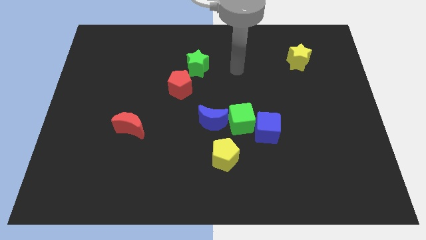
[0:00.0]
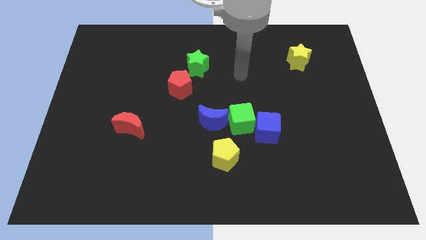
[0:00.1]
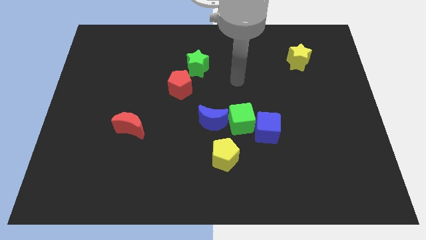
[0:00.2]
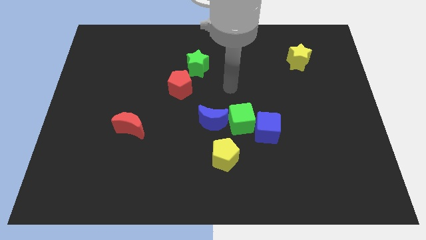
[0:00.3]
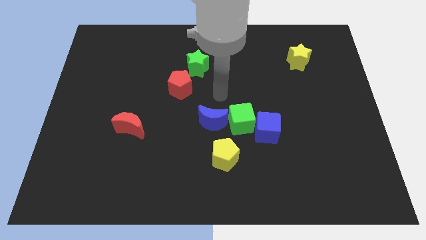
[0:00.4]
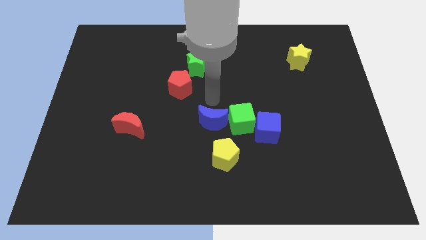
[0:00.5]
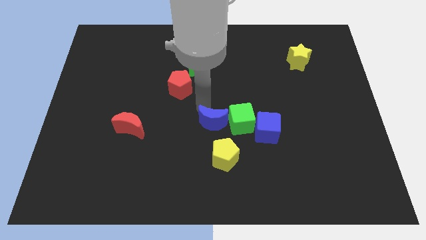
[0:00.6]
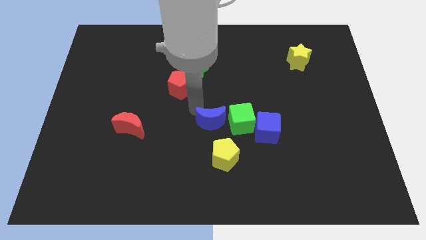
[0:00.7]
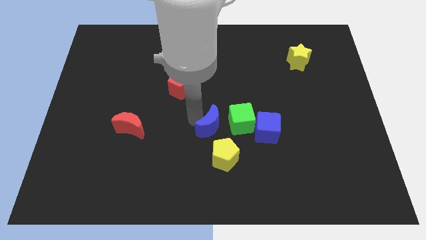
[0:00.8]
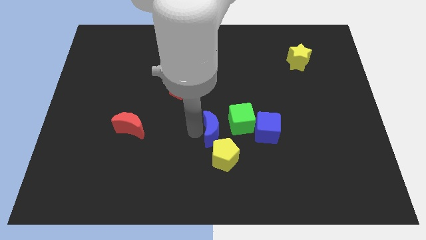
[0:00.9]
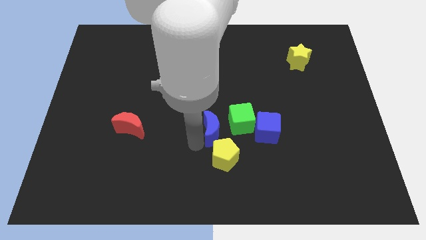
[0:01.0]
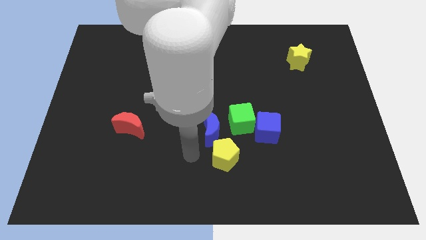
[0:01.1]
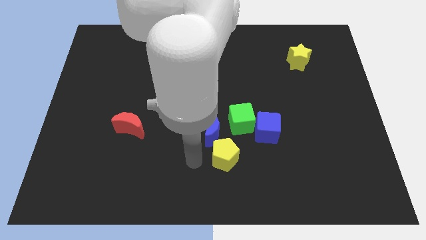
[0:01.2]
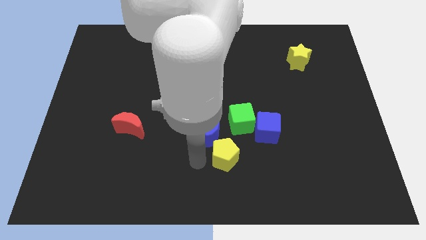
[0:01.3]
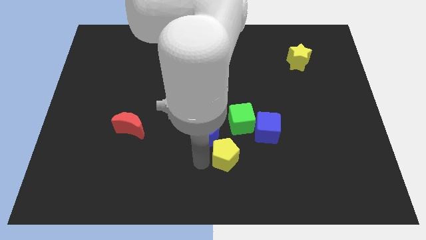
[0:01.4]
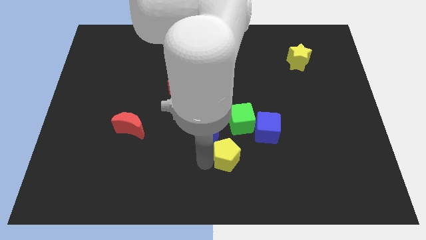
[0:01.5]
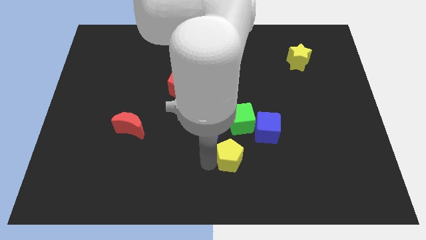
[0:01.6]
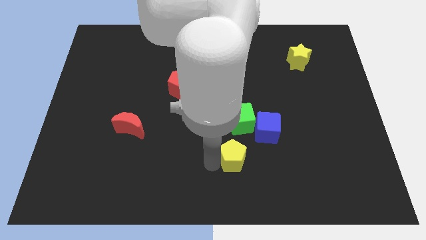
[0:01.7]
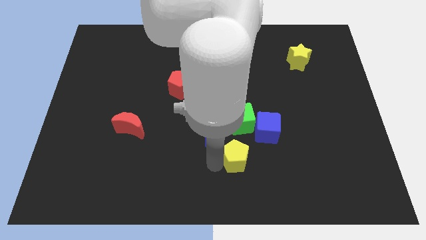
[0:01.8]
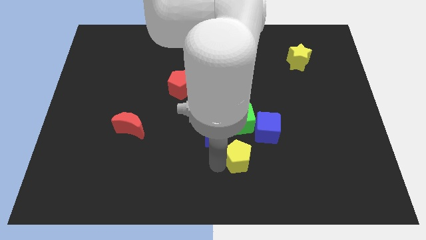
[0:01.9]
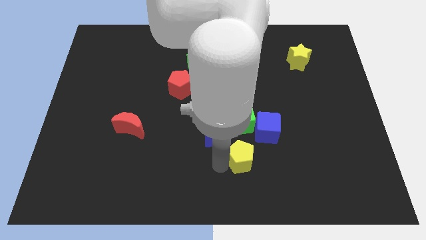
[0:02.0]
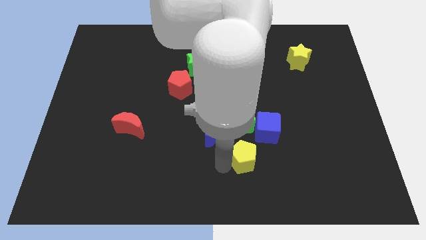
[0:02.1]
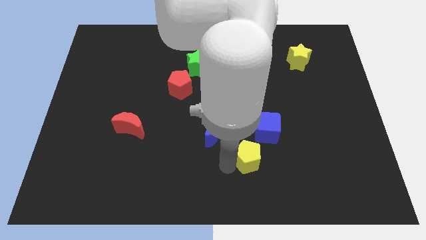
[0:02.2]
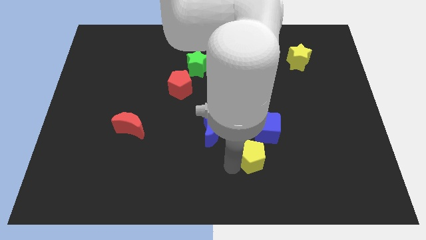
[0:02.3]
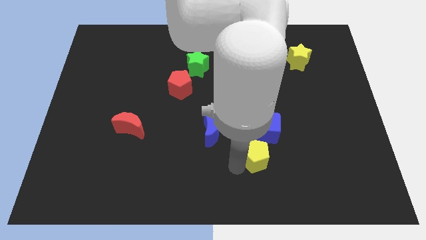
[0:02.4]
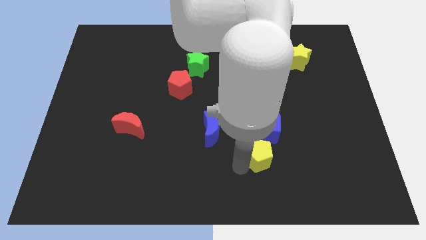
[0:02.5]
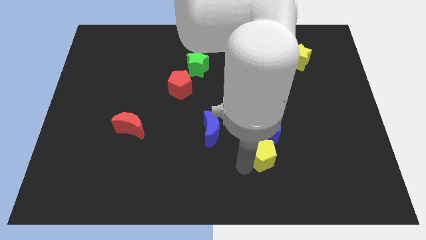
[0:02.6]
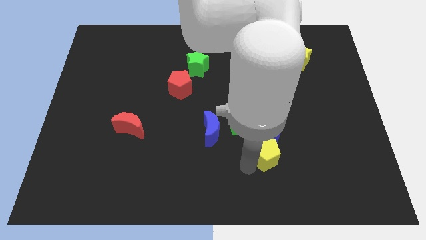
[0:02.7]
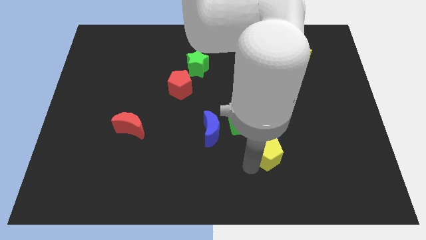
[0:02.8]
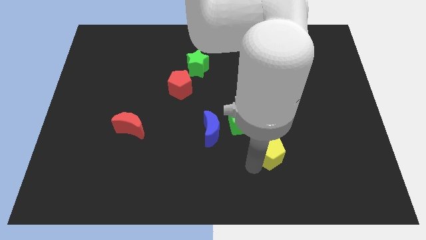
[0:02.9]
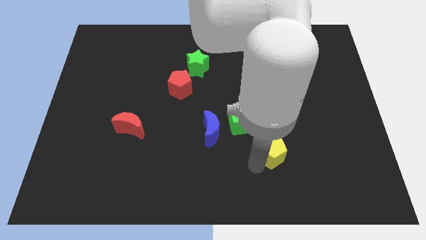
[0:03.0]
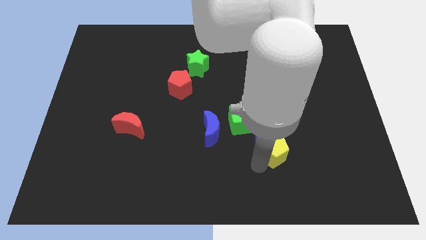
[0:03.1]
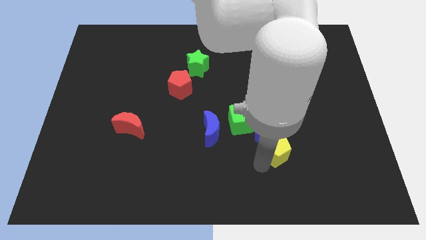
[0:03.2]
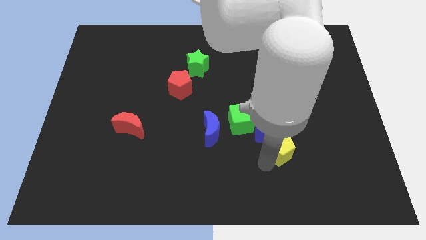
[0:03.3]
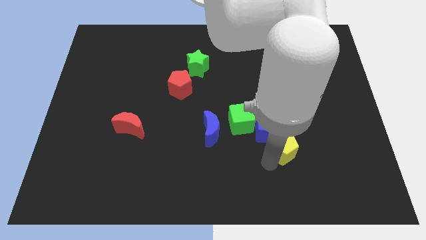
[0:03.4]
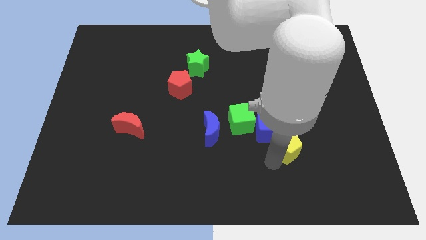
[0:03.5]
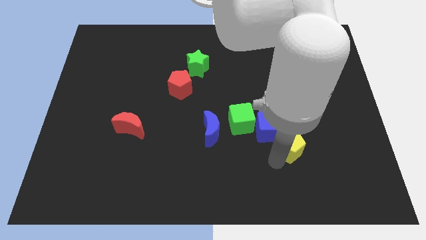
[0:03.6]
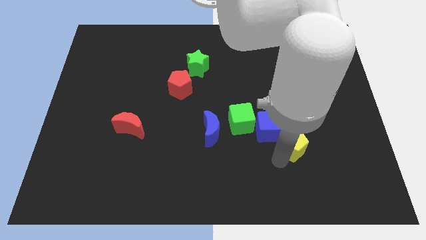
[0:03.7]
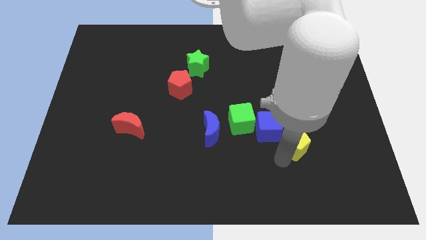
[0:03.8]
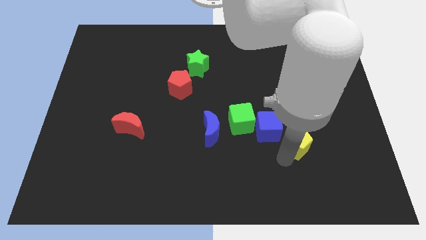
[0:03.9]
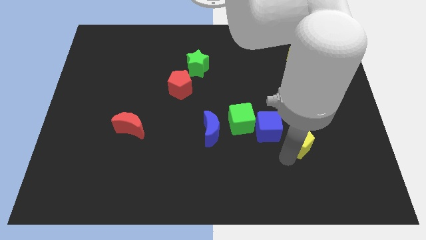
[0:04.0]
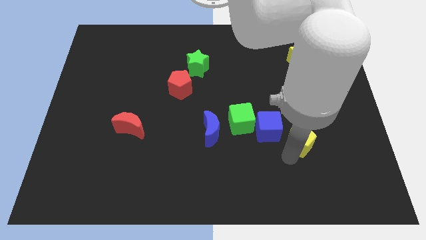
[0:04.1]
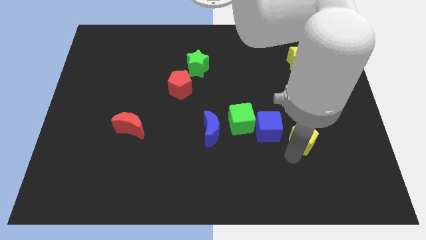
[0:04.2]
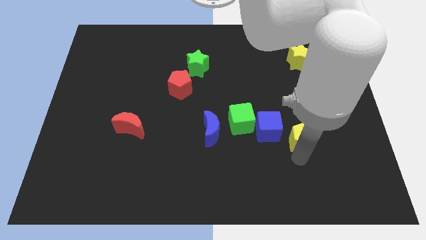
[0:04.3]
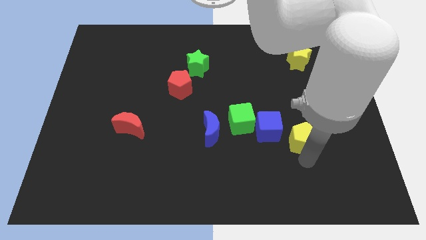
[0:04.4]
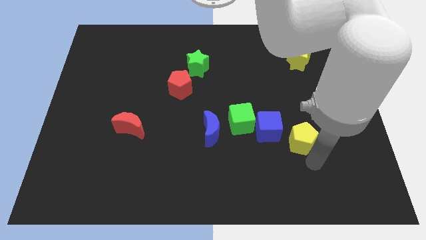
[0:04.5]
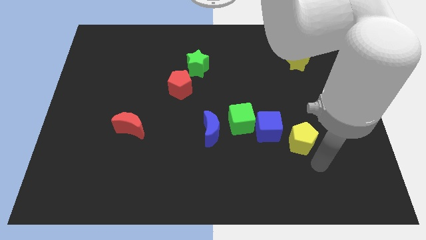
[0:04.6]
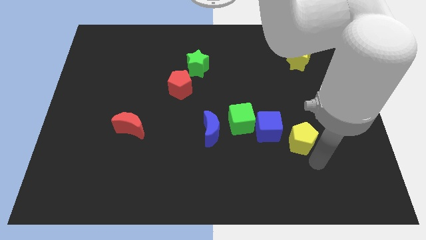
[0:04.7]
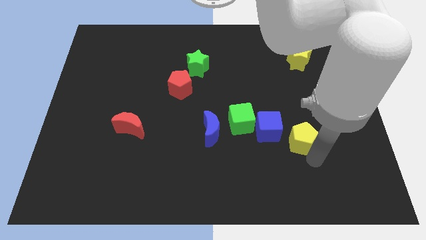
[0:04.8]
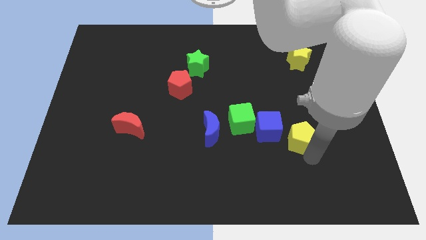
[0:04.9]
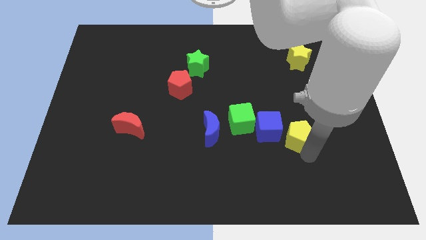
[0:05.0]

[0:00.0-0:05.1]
slide the yellow pentagon right of the green cube

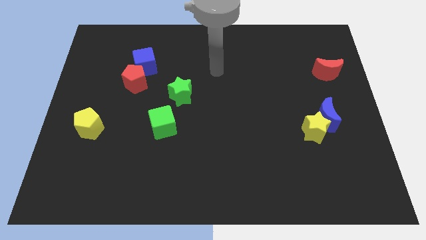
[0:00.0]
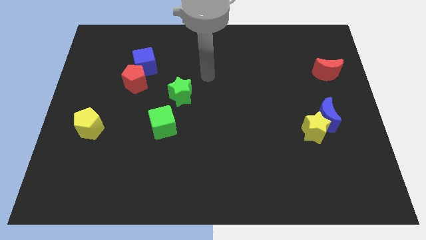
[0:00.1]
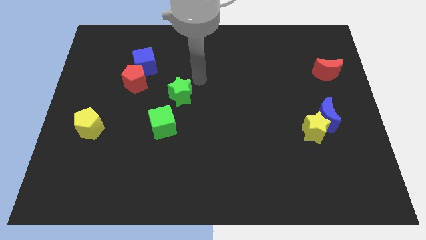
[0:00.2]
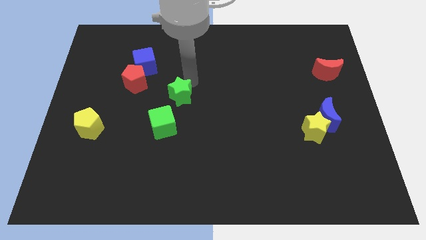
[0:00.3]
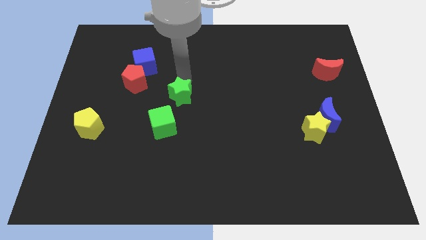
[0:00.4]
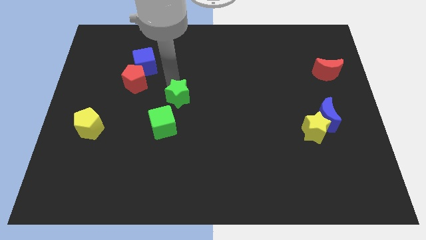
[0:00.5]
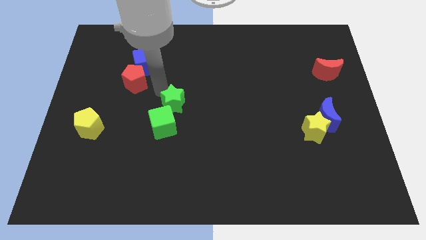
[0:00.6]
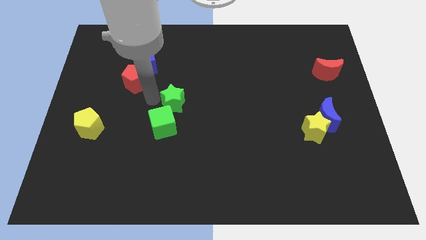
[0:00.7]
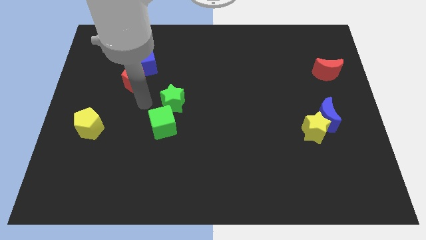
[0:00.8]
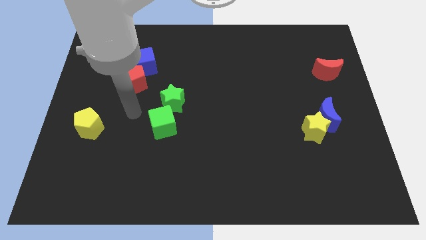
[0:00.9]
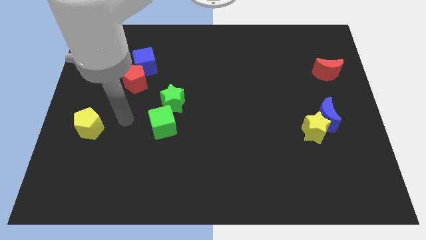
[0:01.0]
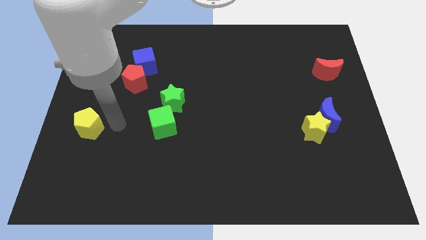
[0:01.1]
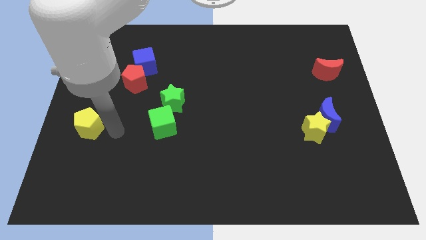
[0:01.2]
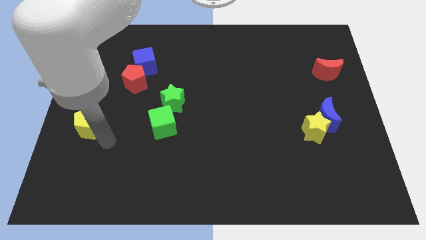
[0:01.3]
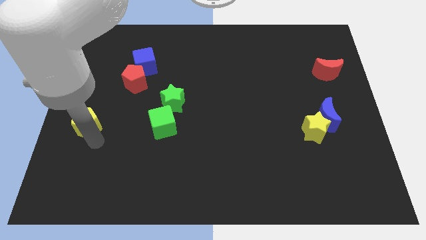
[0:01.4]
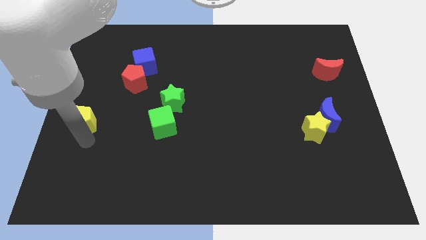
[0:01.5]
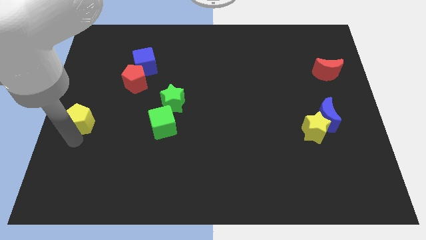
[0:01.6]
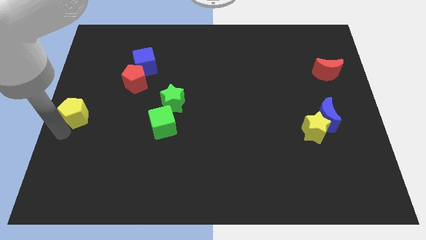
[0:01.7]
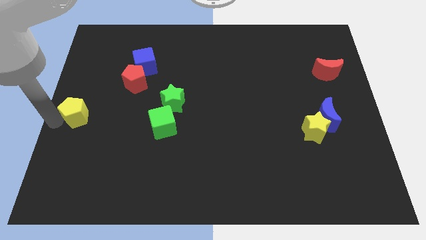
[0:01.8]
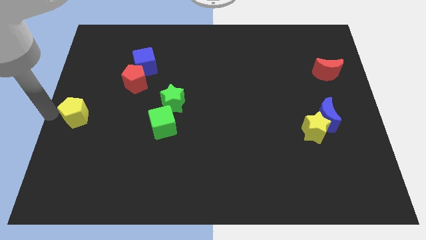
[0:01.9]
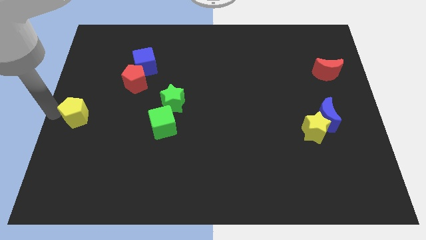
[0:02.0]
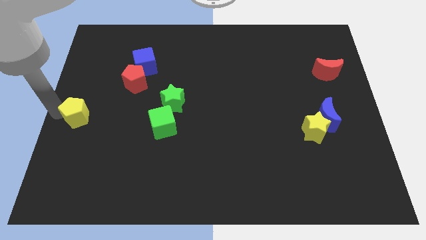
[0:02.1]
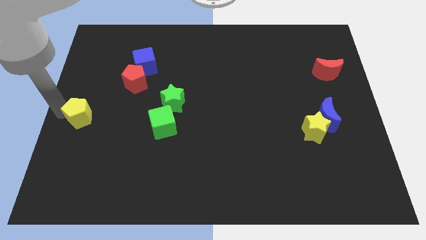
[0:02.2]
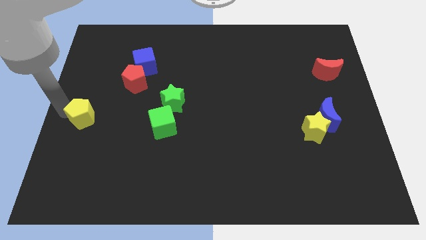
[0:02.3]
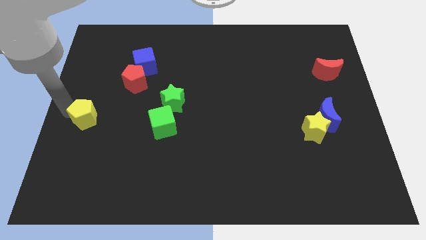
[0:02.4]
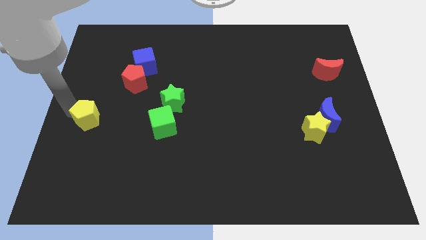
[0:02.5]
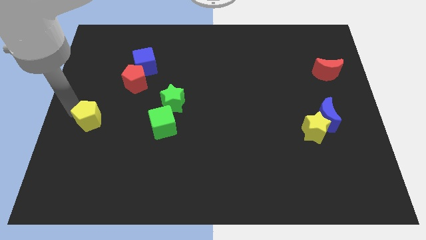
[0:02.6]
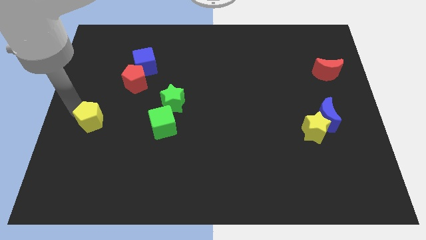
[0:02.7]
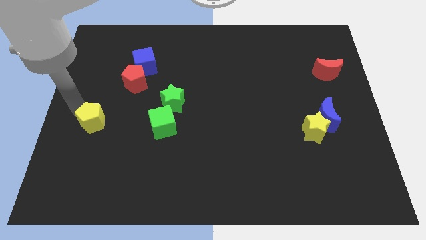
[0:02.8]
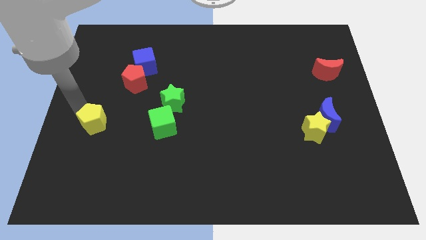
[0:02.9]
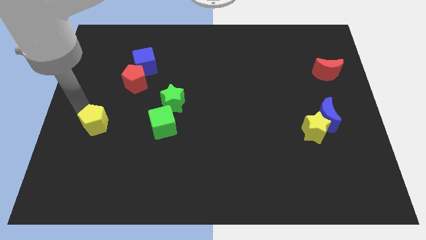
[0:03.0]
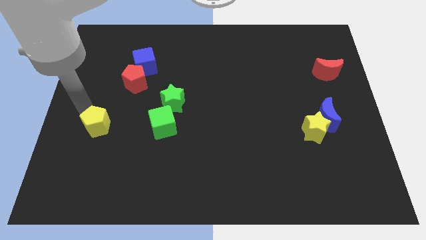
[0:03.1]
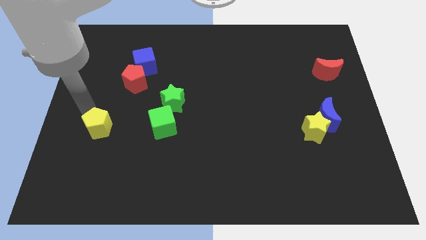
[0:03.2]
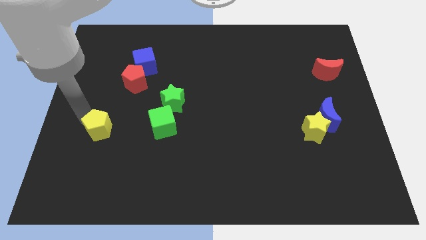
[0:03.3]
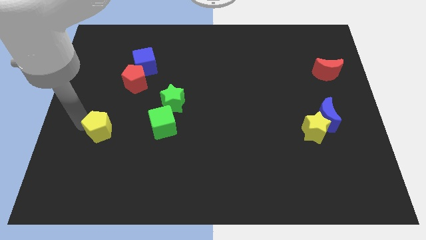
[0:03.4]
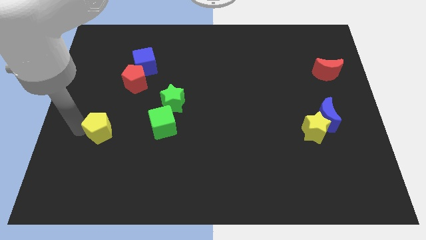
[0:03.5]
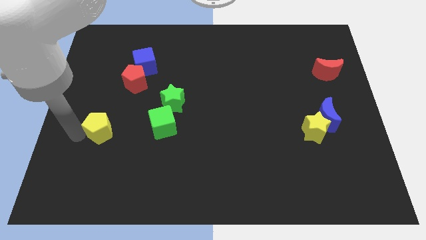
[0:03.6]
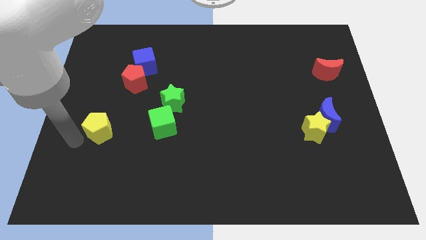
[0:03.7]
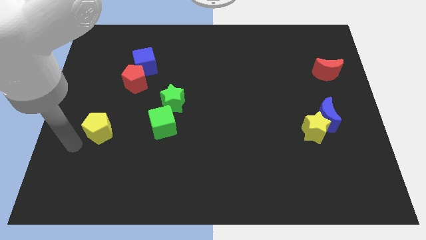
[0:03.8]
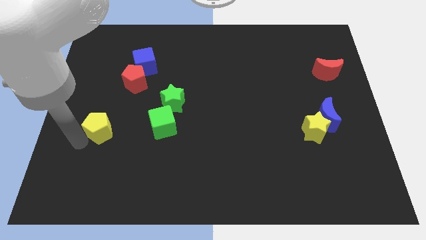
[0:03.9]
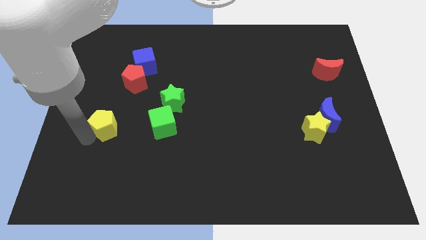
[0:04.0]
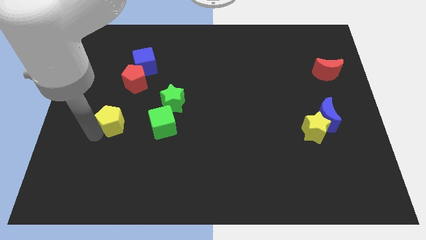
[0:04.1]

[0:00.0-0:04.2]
move the yellow pentagon to the bottom of the red pentagon
